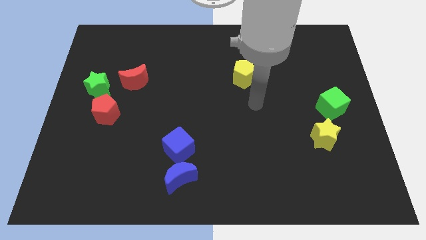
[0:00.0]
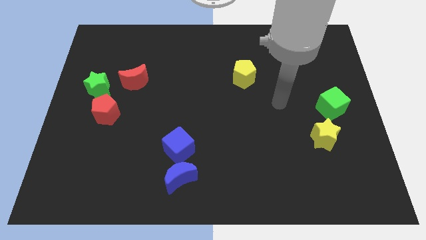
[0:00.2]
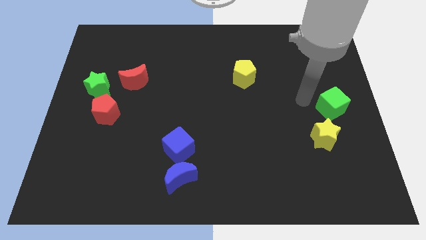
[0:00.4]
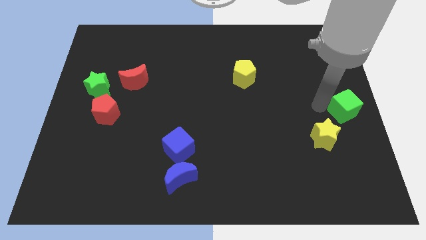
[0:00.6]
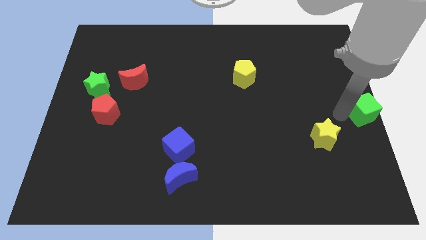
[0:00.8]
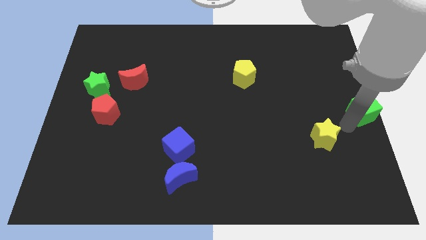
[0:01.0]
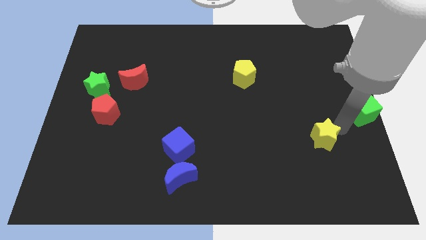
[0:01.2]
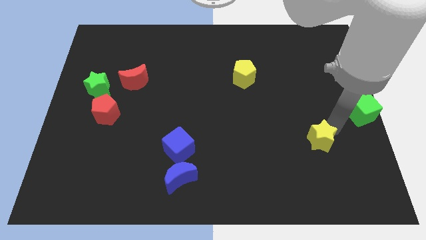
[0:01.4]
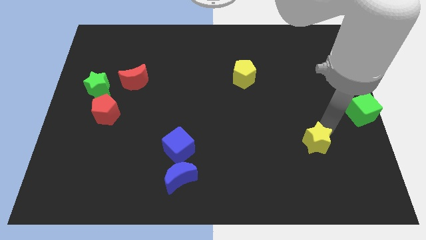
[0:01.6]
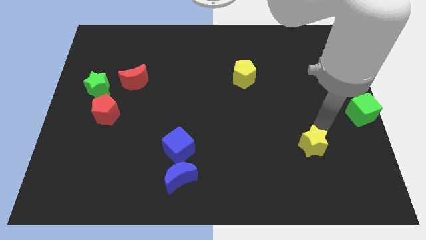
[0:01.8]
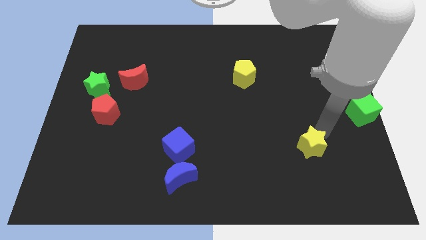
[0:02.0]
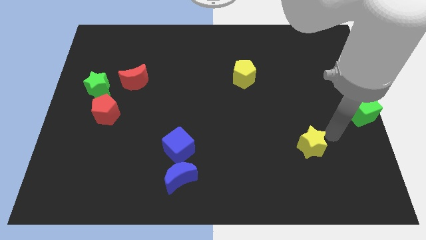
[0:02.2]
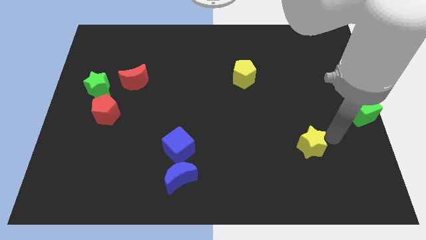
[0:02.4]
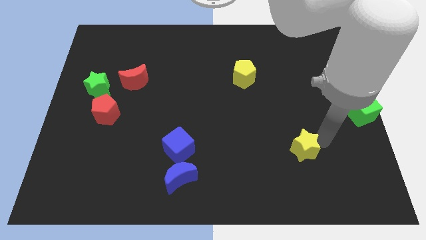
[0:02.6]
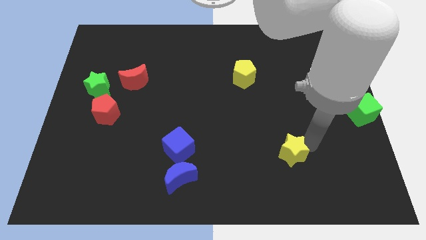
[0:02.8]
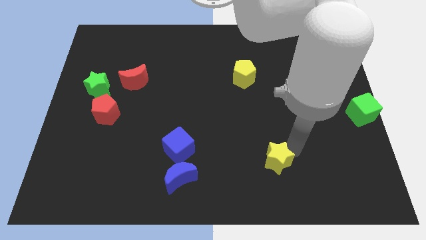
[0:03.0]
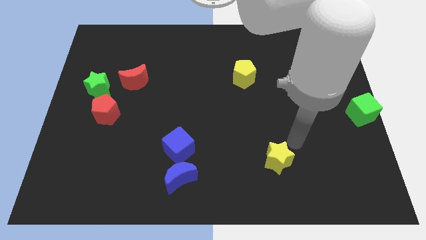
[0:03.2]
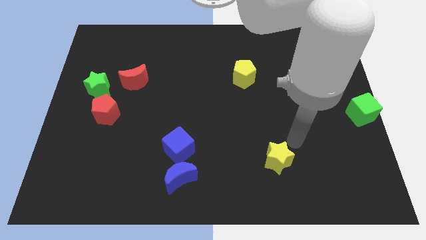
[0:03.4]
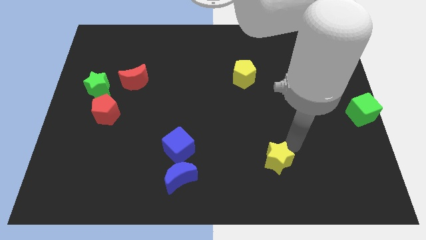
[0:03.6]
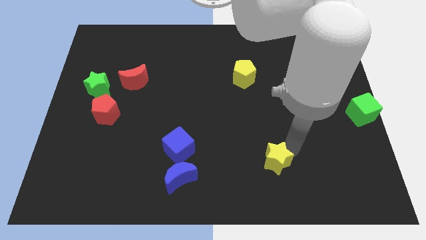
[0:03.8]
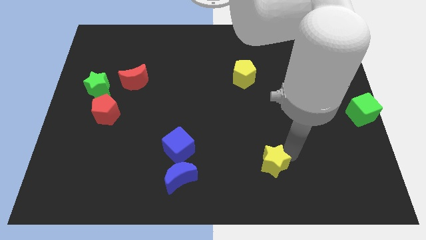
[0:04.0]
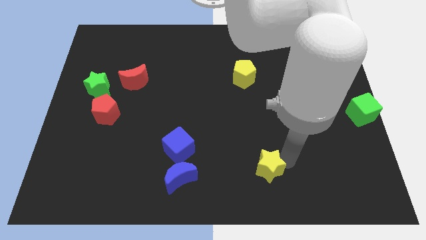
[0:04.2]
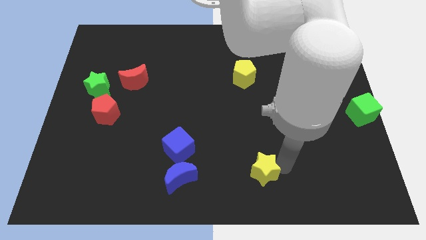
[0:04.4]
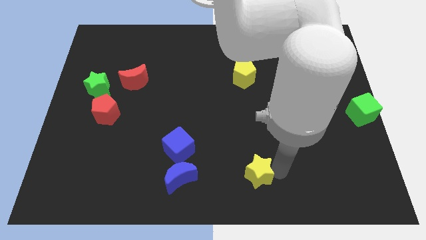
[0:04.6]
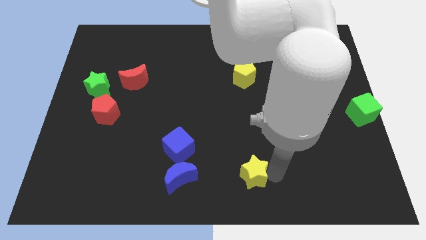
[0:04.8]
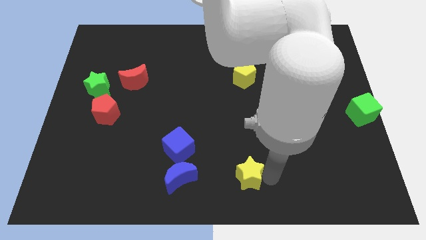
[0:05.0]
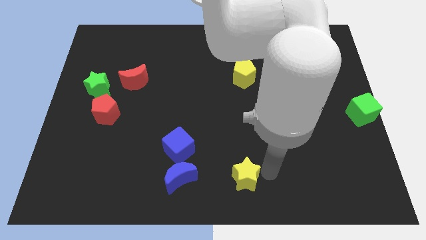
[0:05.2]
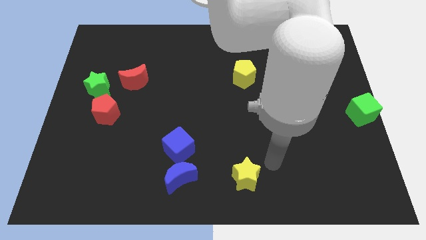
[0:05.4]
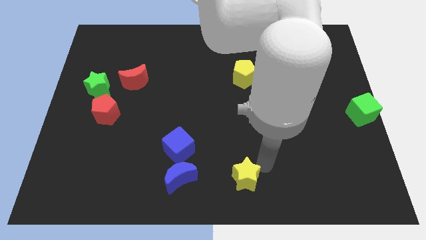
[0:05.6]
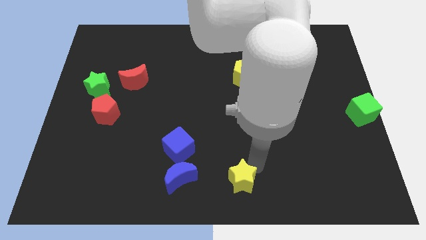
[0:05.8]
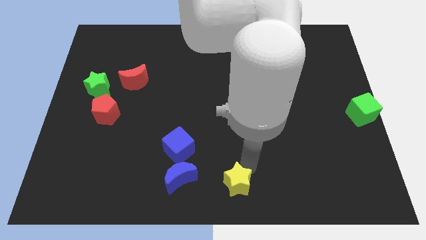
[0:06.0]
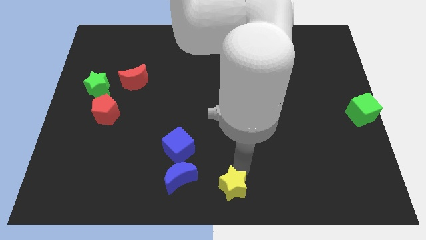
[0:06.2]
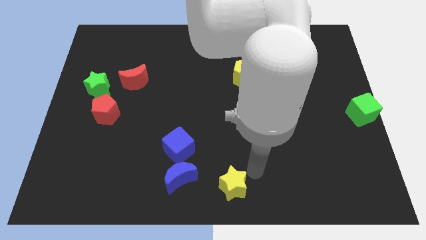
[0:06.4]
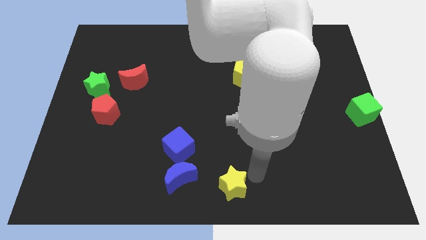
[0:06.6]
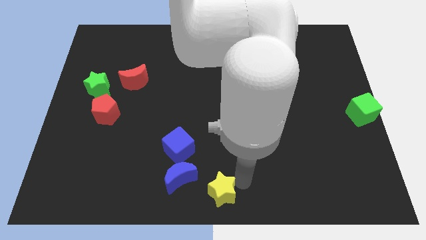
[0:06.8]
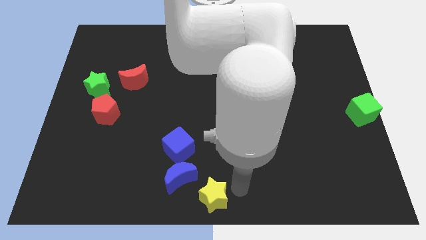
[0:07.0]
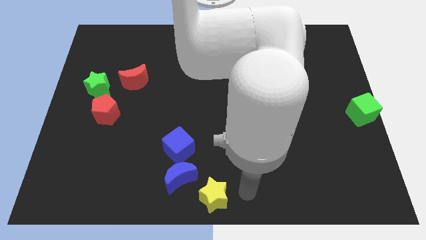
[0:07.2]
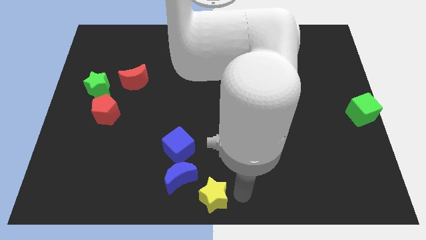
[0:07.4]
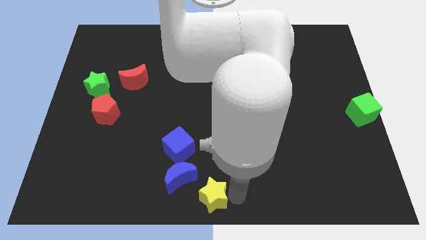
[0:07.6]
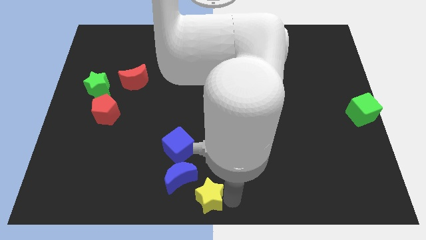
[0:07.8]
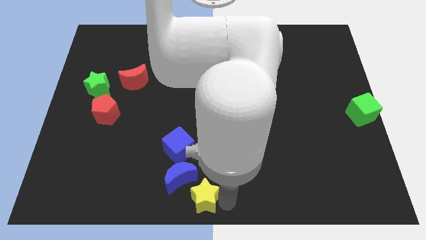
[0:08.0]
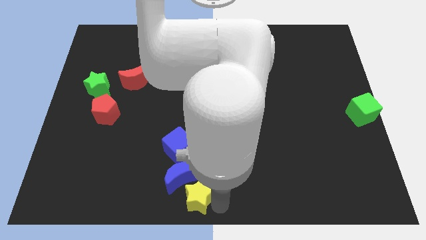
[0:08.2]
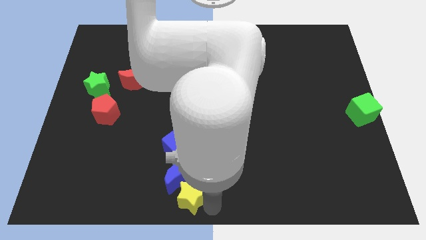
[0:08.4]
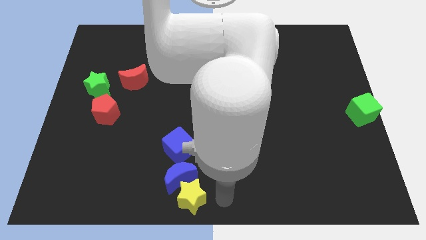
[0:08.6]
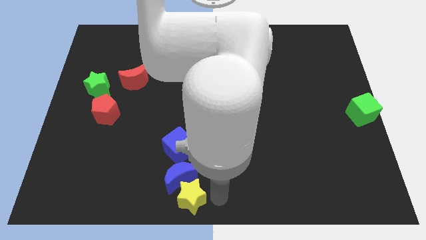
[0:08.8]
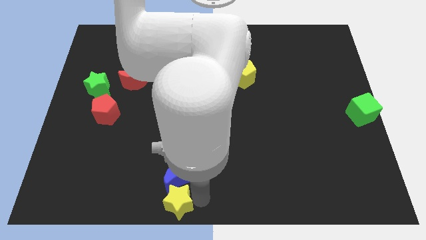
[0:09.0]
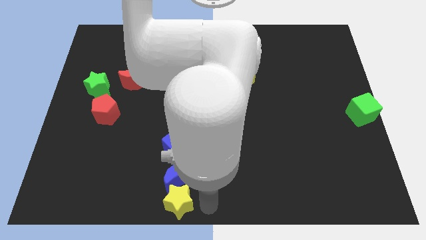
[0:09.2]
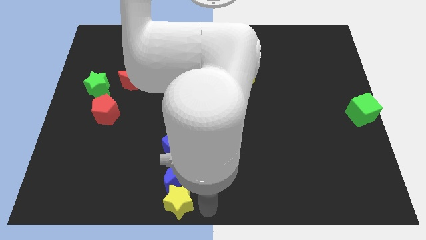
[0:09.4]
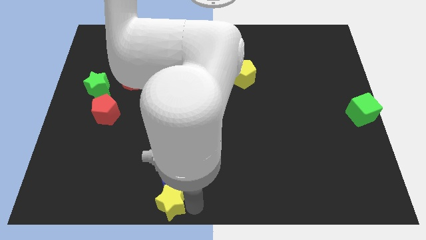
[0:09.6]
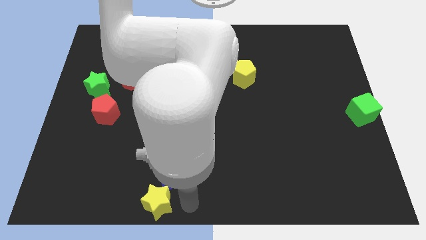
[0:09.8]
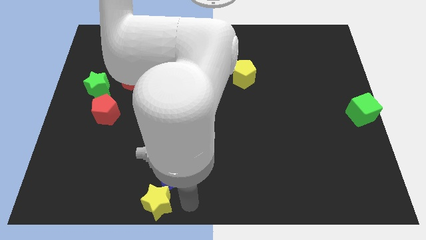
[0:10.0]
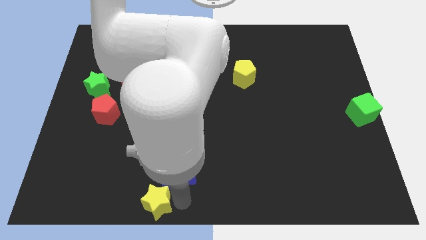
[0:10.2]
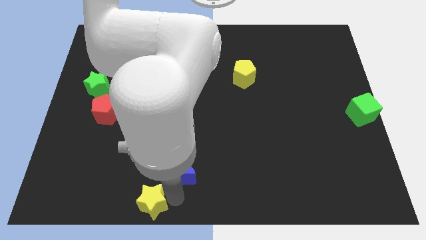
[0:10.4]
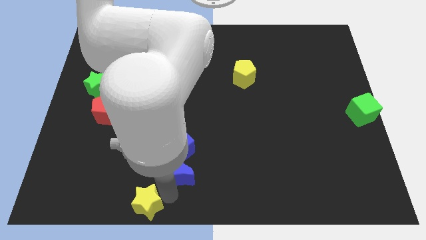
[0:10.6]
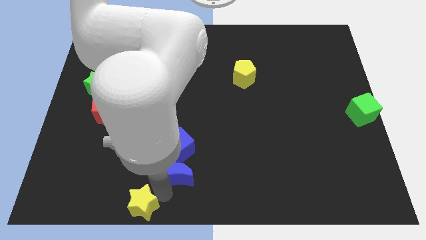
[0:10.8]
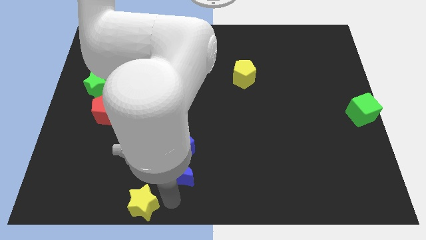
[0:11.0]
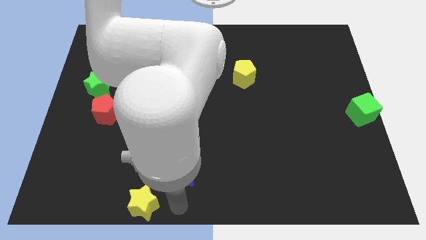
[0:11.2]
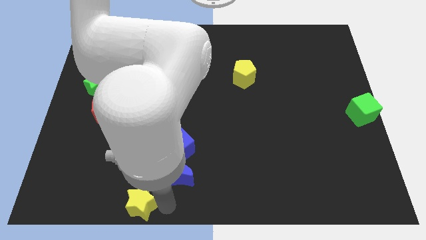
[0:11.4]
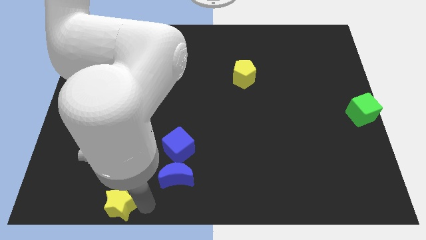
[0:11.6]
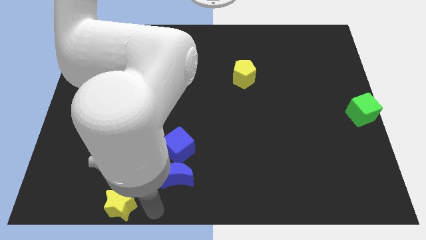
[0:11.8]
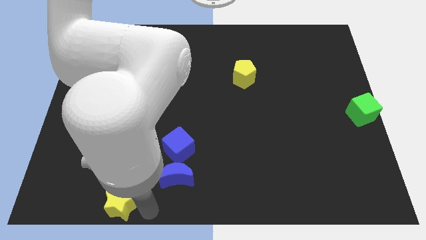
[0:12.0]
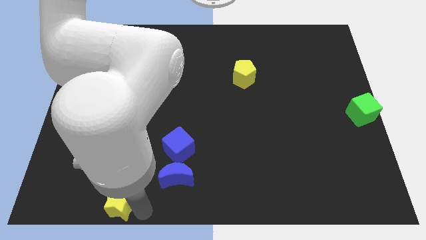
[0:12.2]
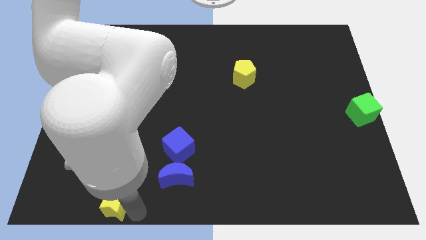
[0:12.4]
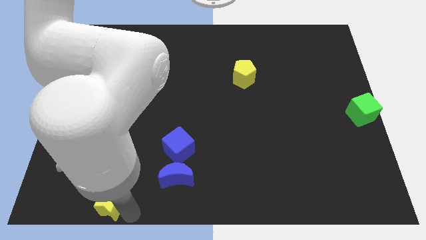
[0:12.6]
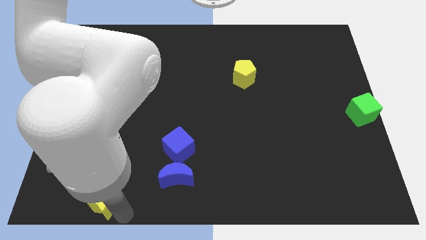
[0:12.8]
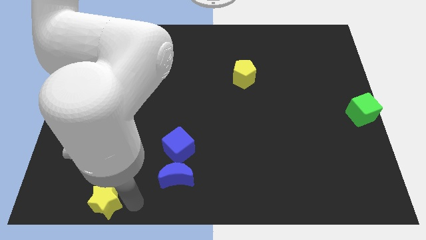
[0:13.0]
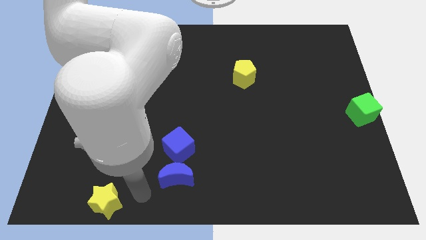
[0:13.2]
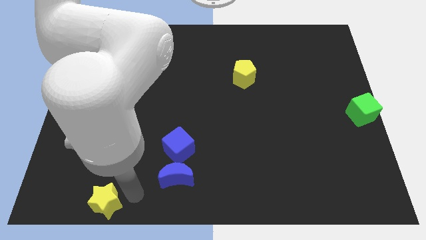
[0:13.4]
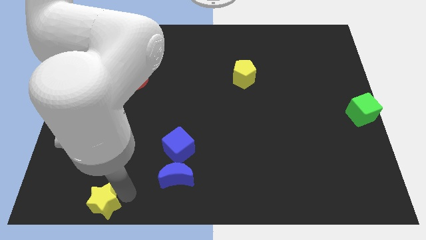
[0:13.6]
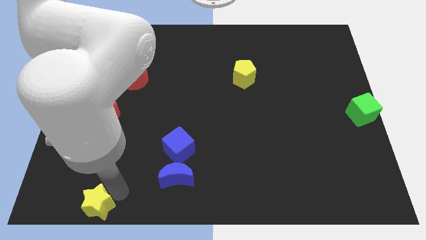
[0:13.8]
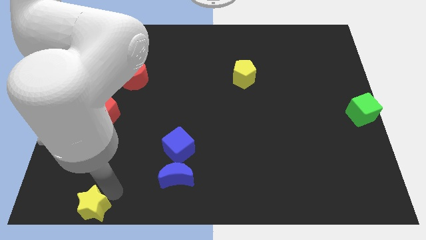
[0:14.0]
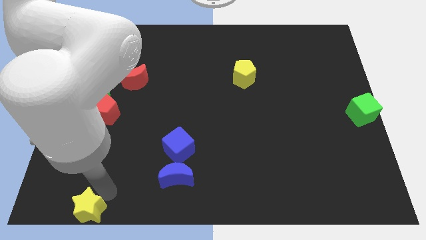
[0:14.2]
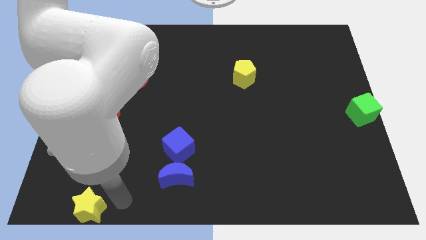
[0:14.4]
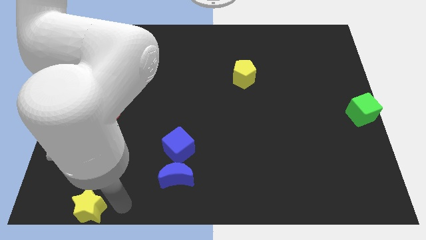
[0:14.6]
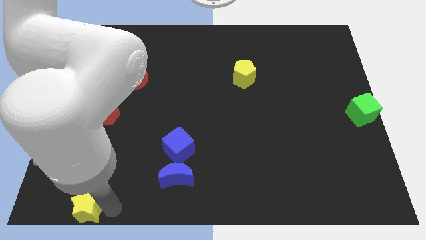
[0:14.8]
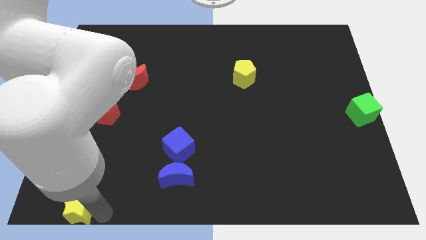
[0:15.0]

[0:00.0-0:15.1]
put the yellow star to the bottom left corner
